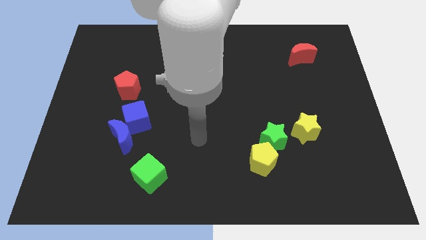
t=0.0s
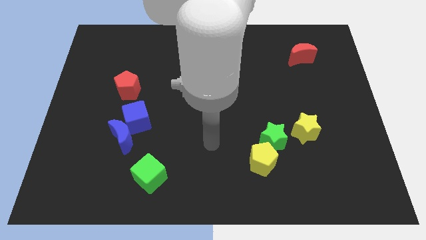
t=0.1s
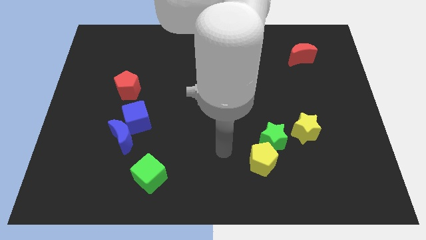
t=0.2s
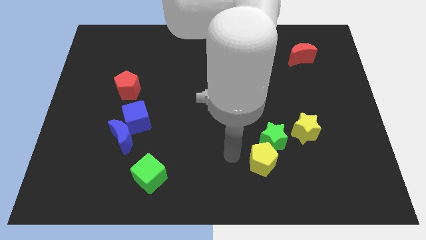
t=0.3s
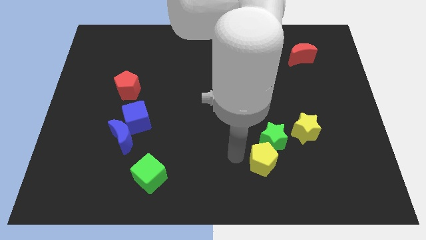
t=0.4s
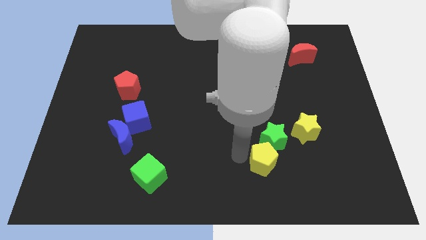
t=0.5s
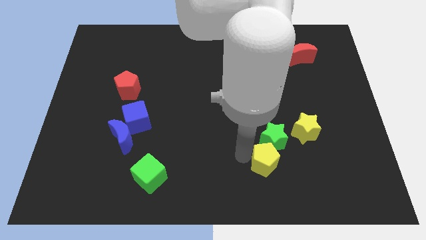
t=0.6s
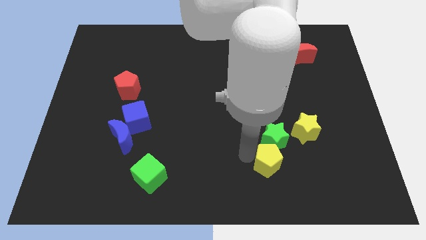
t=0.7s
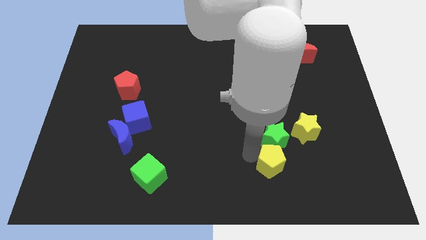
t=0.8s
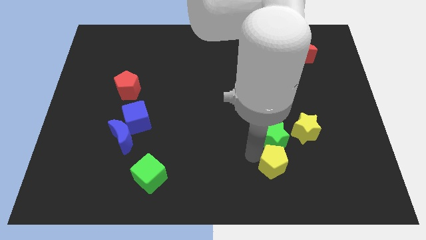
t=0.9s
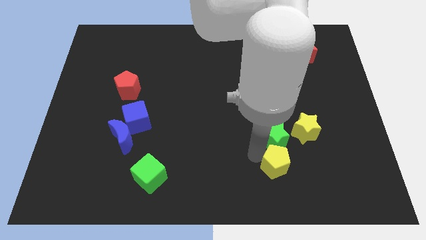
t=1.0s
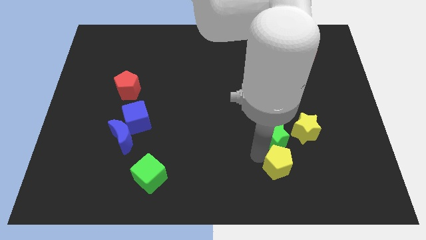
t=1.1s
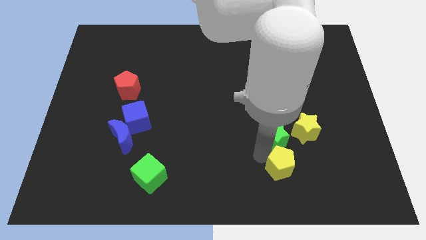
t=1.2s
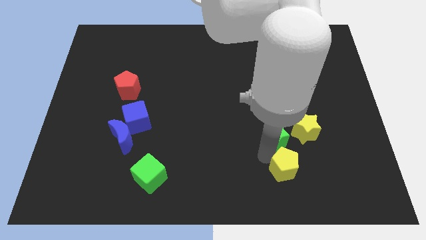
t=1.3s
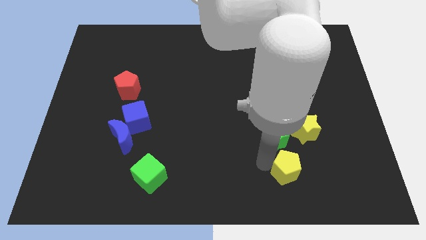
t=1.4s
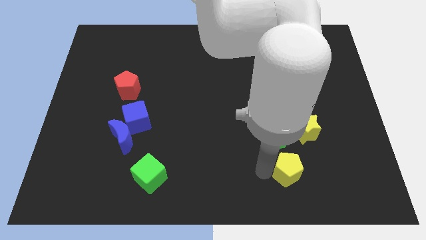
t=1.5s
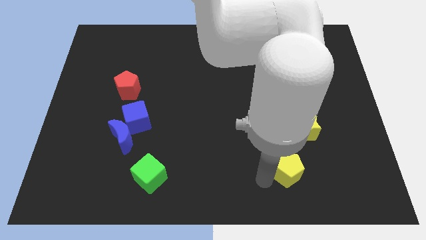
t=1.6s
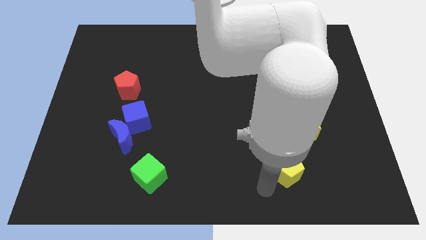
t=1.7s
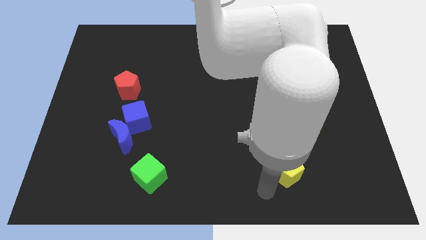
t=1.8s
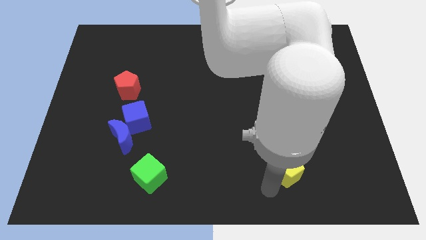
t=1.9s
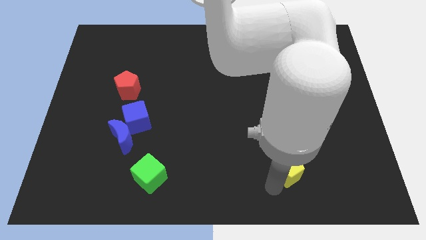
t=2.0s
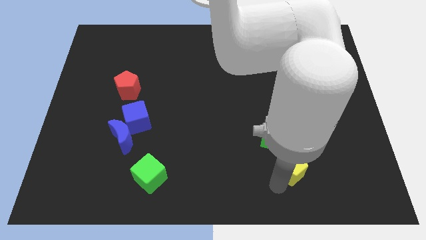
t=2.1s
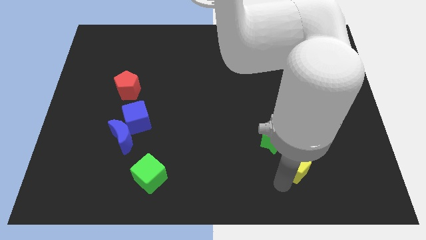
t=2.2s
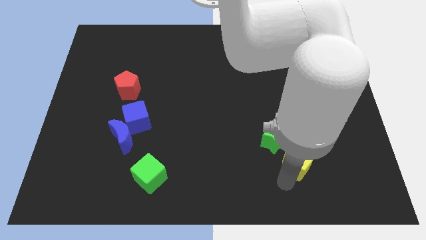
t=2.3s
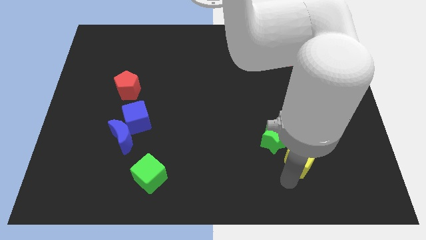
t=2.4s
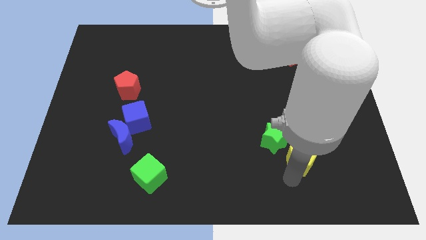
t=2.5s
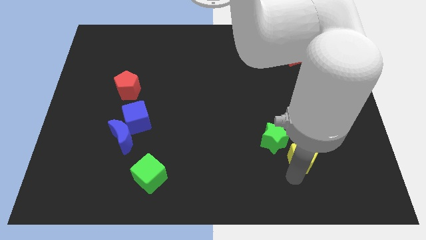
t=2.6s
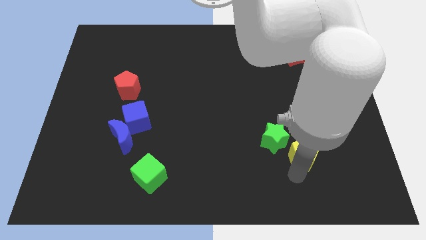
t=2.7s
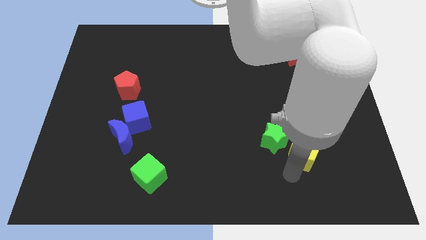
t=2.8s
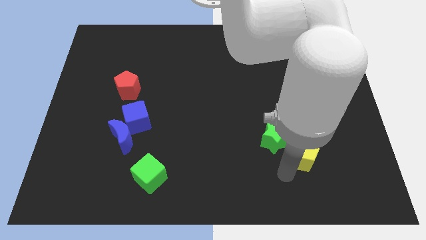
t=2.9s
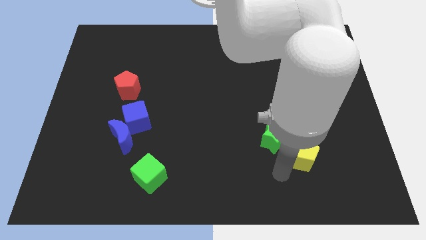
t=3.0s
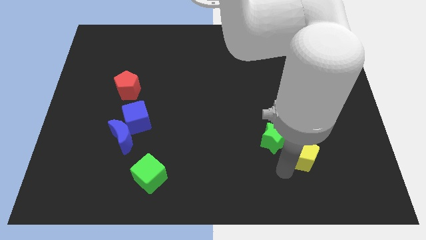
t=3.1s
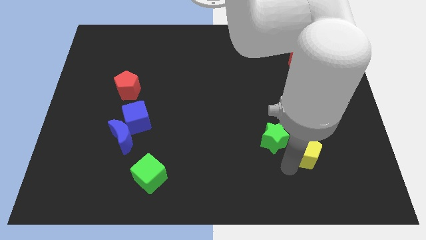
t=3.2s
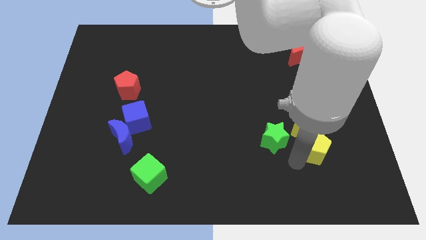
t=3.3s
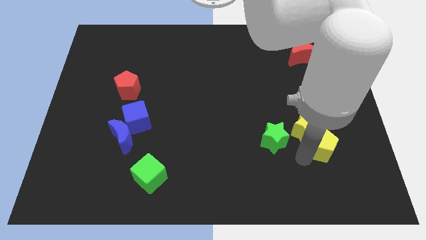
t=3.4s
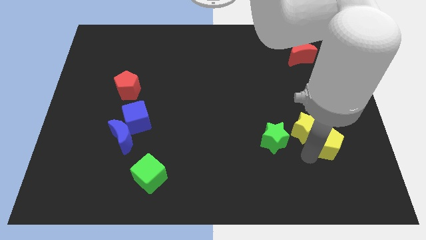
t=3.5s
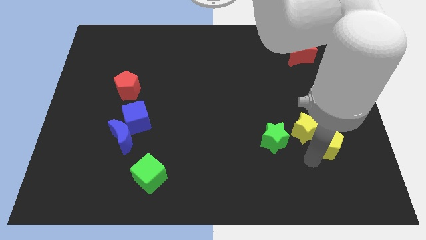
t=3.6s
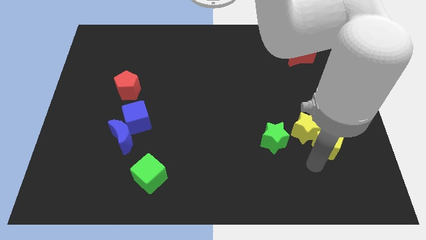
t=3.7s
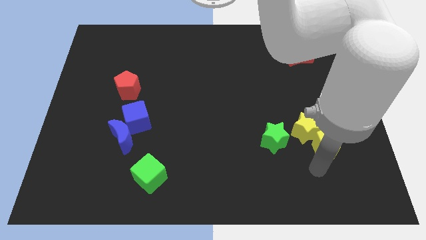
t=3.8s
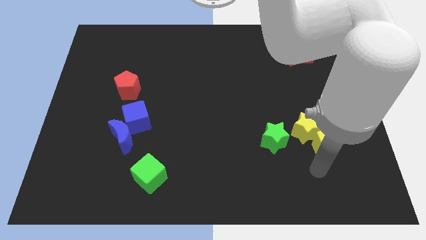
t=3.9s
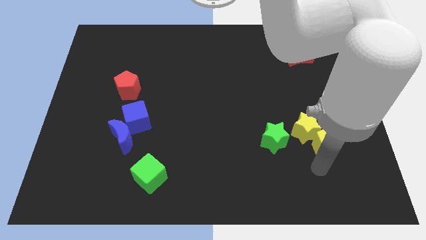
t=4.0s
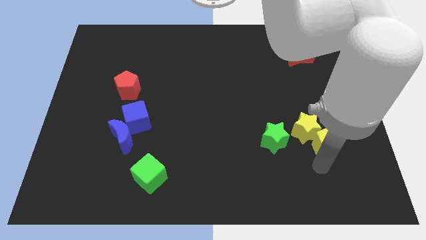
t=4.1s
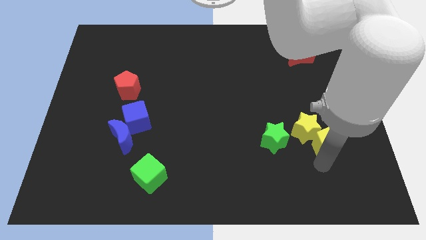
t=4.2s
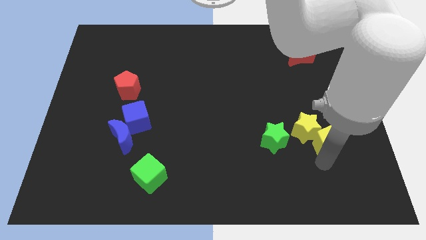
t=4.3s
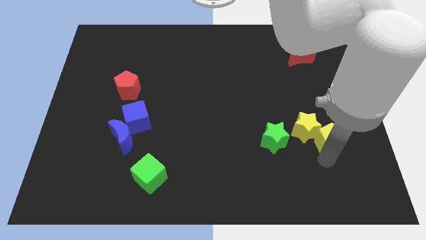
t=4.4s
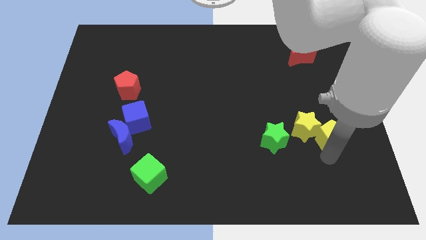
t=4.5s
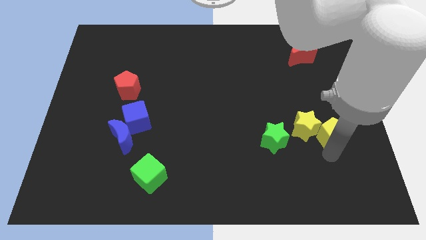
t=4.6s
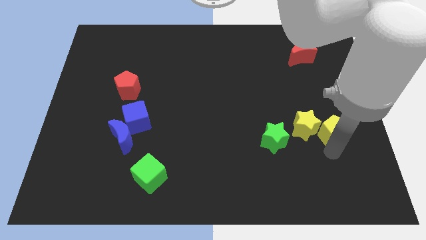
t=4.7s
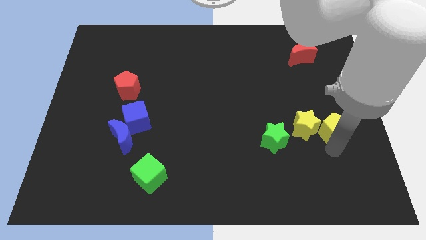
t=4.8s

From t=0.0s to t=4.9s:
push the yellow pentagon diagonally up and to the right of the yellow star

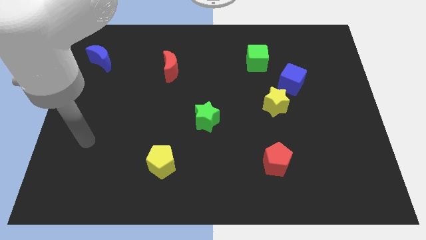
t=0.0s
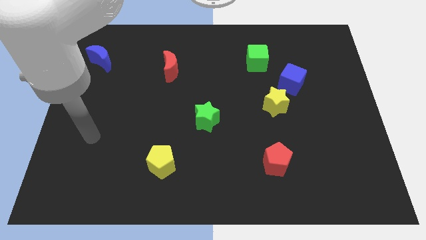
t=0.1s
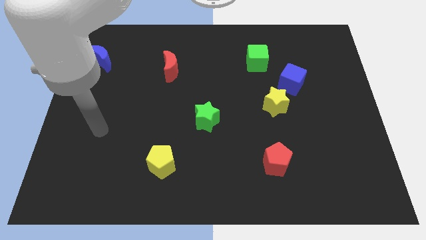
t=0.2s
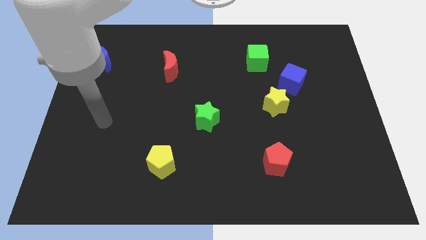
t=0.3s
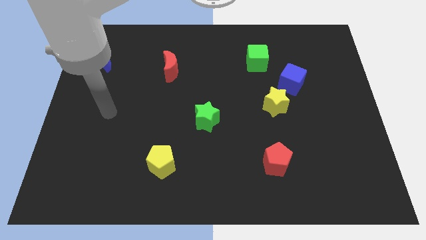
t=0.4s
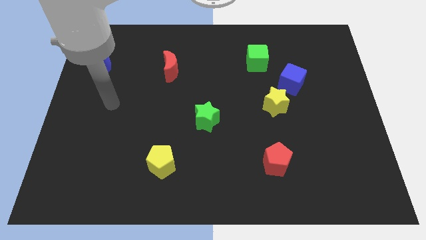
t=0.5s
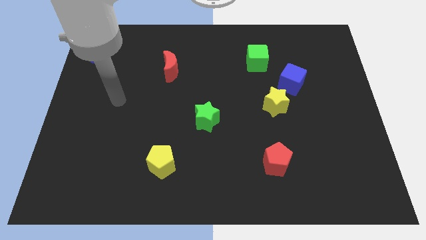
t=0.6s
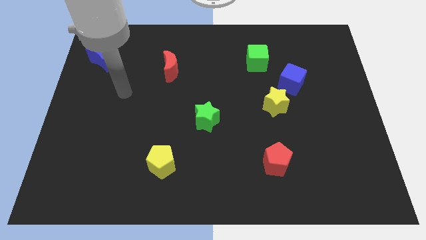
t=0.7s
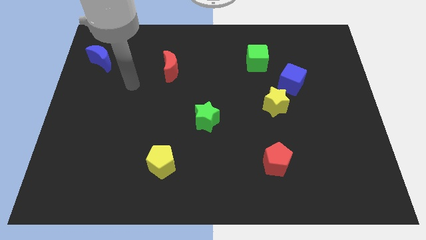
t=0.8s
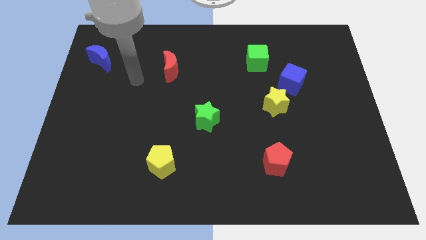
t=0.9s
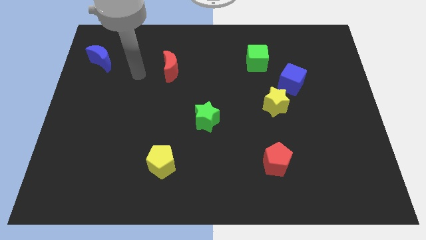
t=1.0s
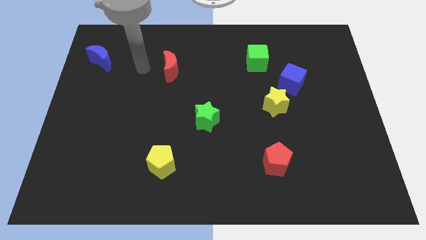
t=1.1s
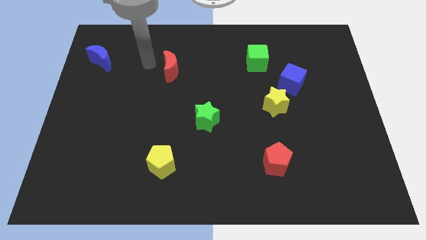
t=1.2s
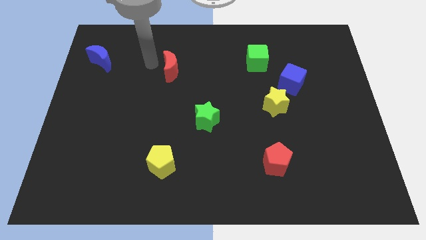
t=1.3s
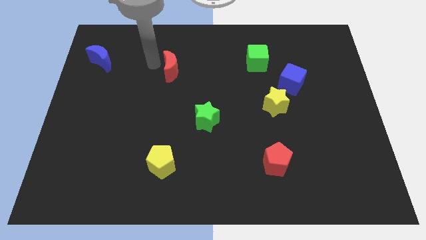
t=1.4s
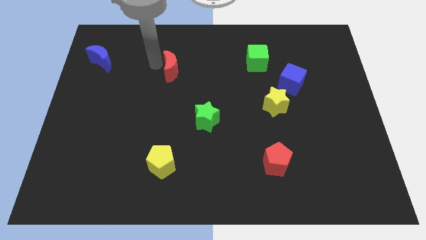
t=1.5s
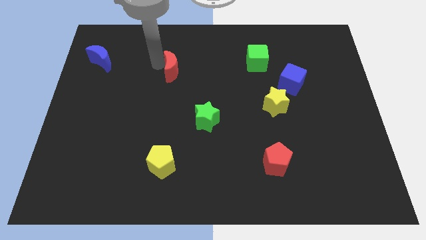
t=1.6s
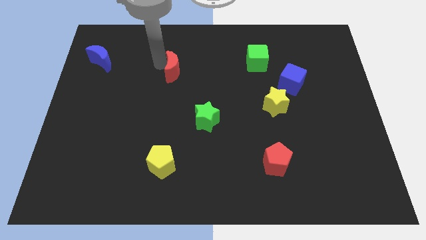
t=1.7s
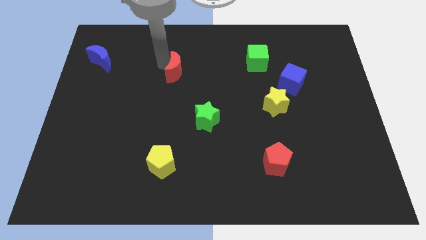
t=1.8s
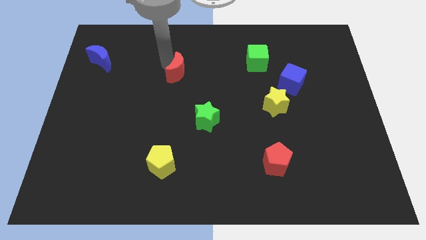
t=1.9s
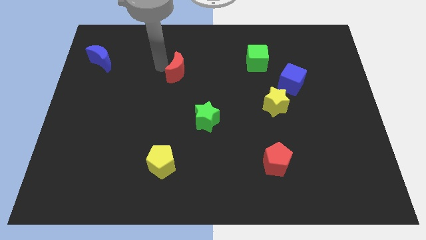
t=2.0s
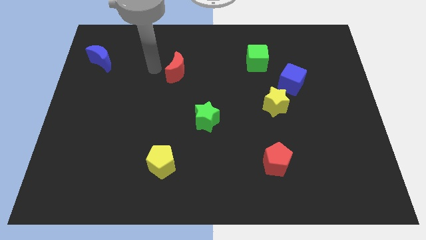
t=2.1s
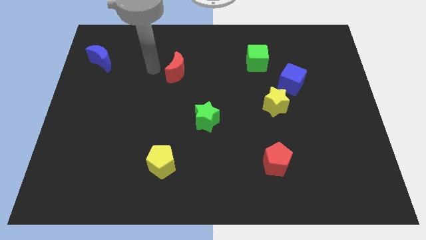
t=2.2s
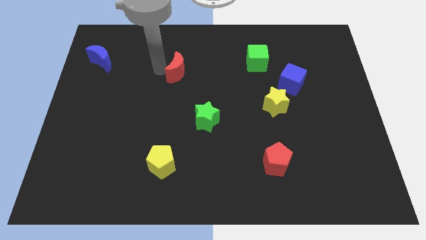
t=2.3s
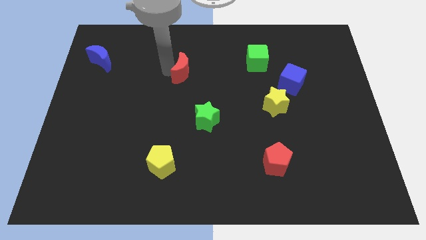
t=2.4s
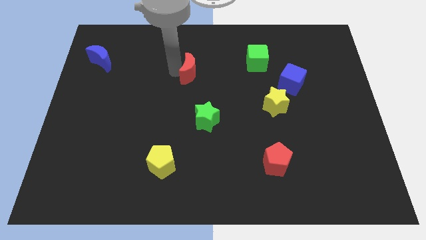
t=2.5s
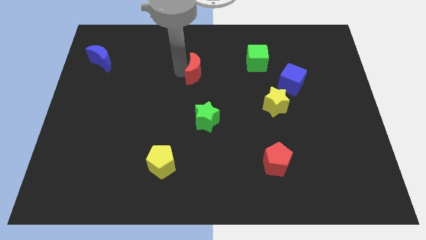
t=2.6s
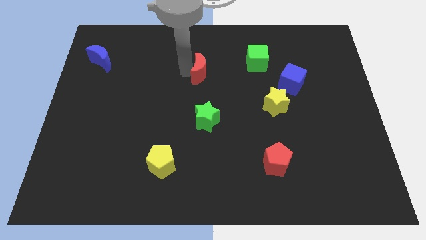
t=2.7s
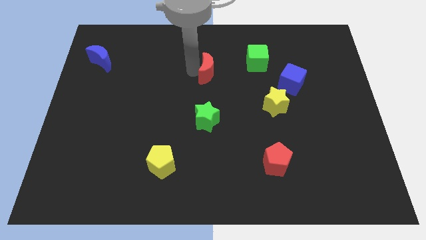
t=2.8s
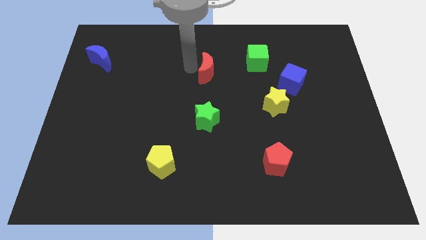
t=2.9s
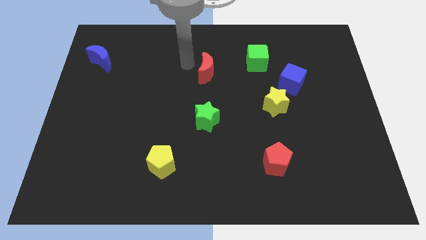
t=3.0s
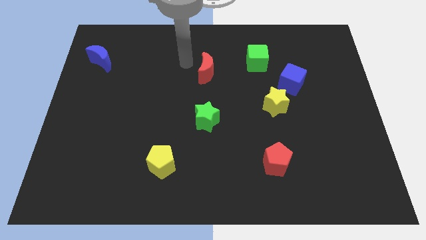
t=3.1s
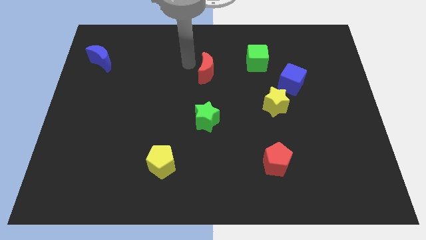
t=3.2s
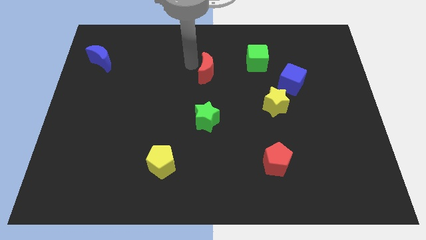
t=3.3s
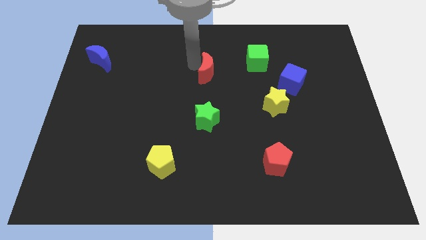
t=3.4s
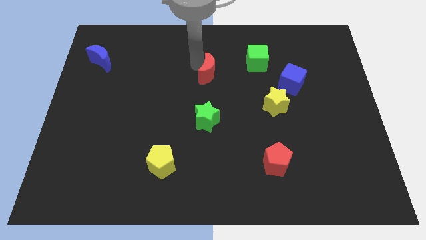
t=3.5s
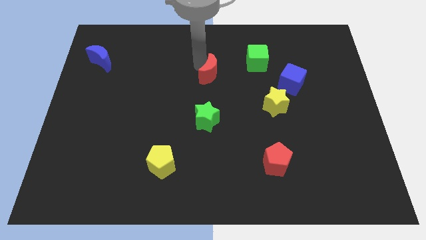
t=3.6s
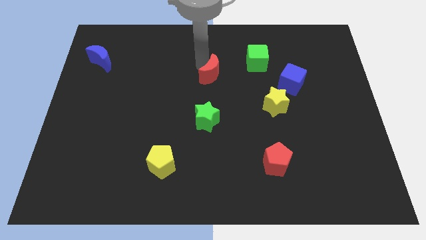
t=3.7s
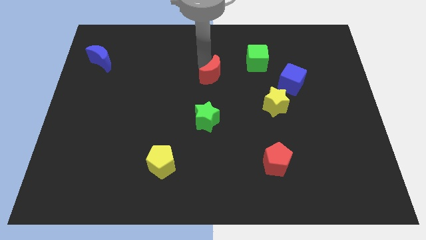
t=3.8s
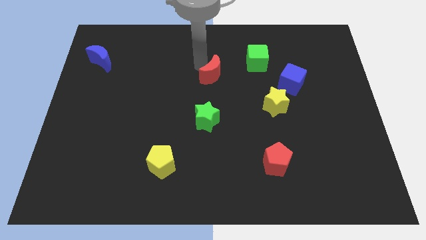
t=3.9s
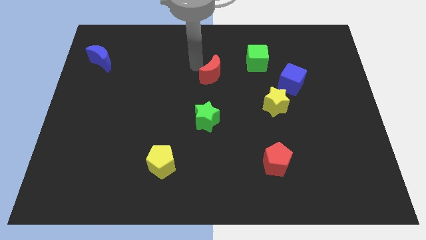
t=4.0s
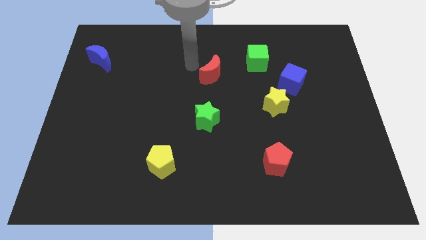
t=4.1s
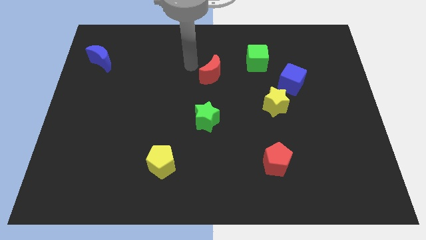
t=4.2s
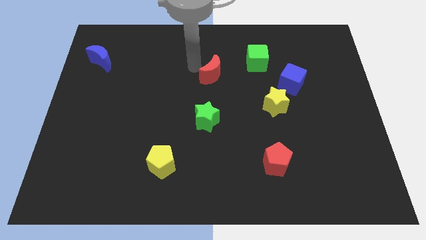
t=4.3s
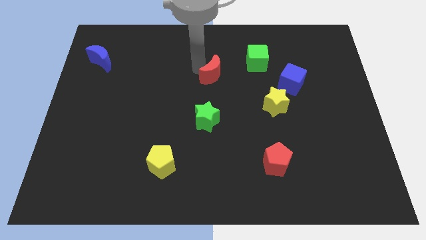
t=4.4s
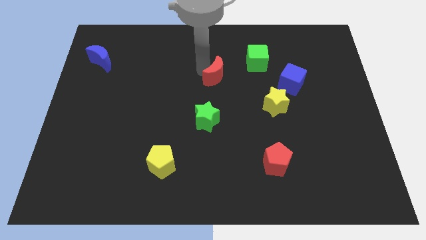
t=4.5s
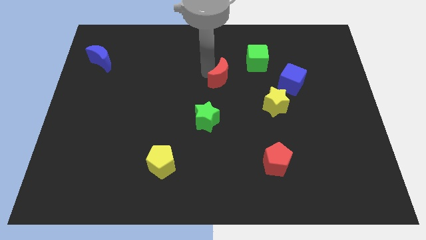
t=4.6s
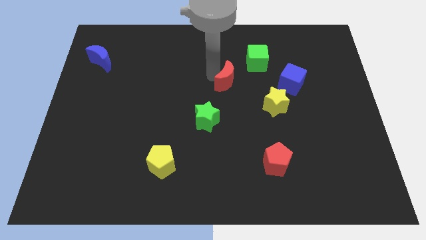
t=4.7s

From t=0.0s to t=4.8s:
push the red moon left of the blue cube
